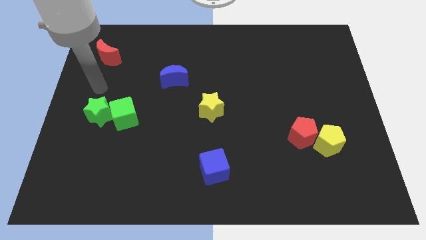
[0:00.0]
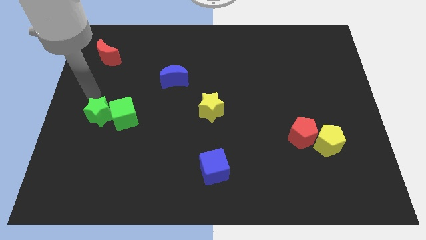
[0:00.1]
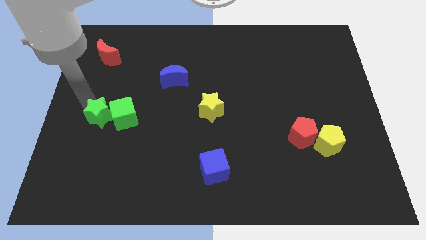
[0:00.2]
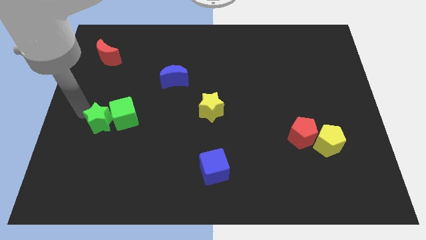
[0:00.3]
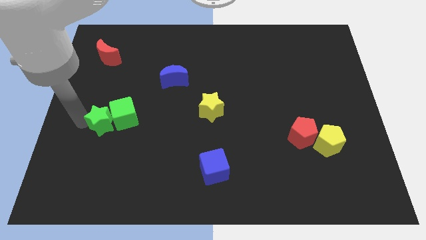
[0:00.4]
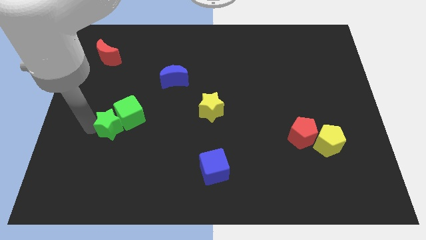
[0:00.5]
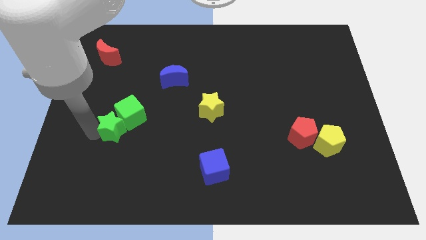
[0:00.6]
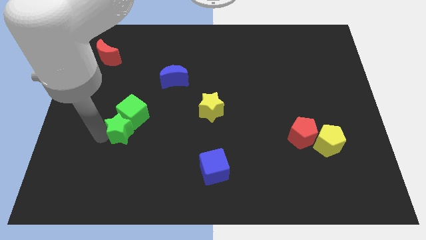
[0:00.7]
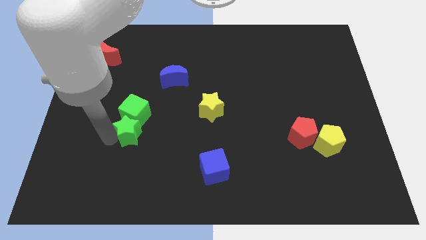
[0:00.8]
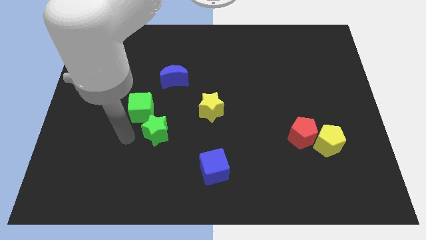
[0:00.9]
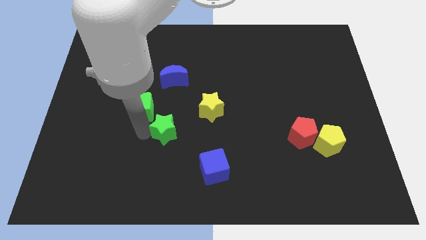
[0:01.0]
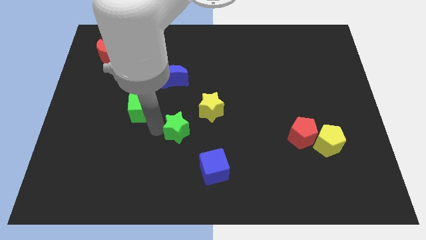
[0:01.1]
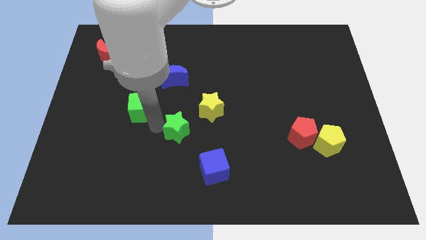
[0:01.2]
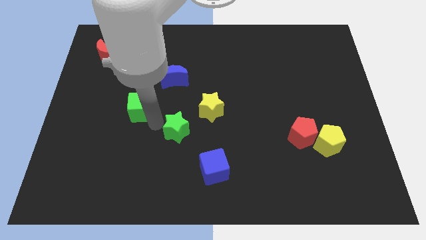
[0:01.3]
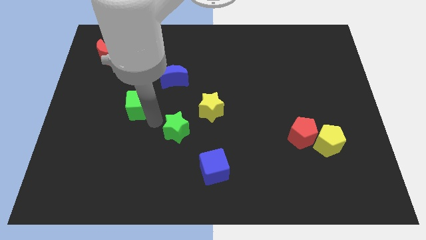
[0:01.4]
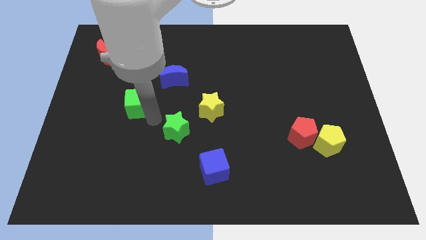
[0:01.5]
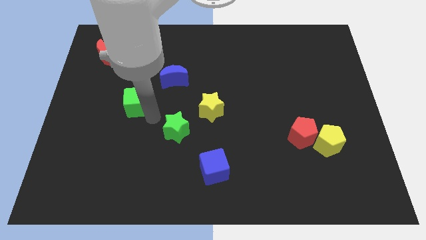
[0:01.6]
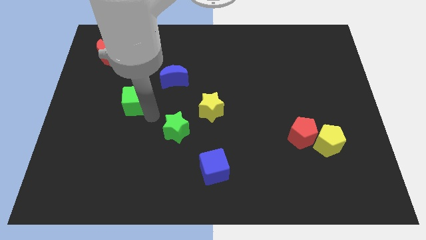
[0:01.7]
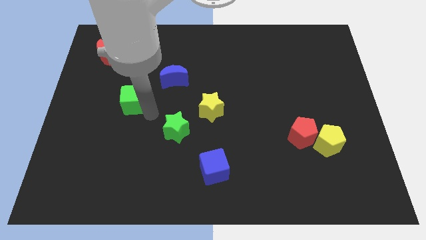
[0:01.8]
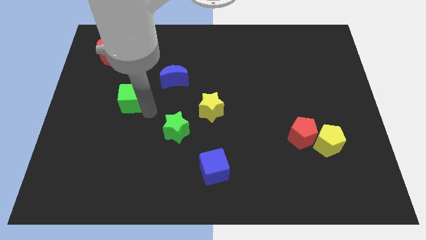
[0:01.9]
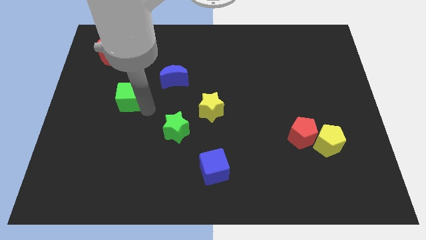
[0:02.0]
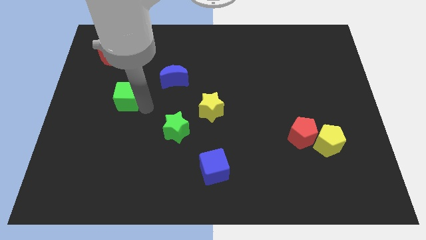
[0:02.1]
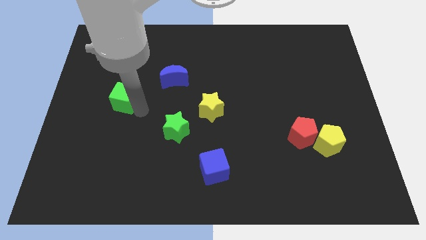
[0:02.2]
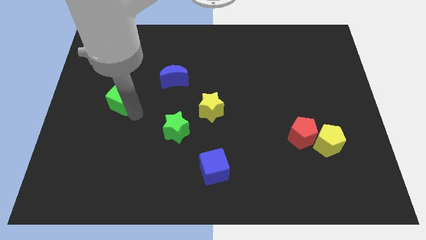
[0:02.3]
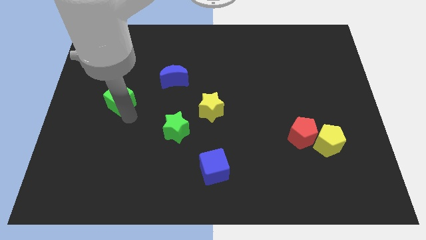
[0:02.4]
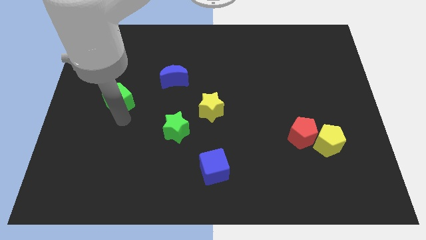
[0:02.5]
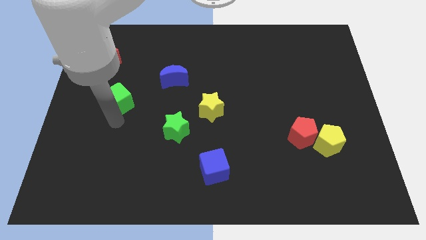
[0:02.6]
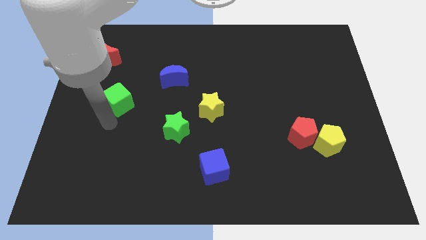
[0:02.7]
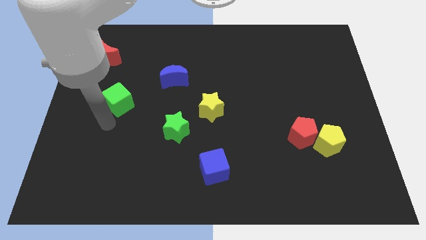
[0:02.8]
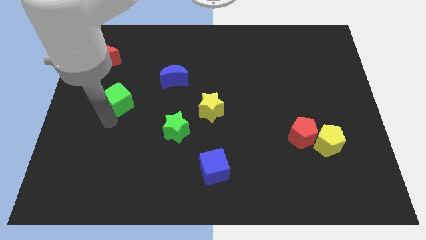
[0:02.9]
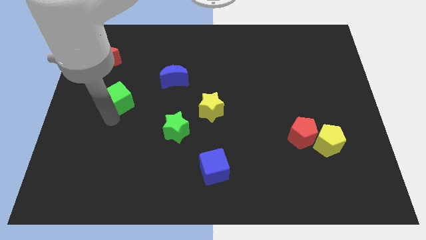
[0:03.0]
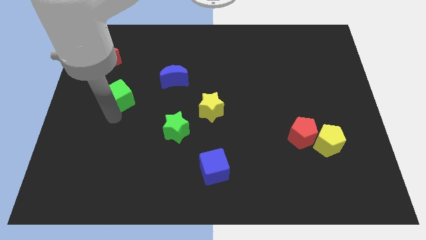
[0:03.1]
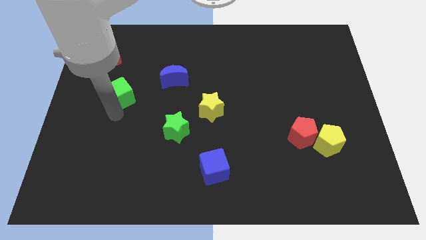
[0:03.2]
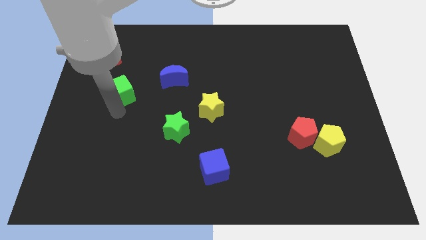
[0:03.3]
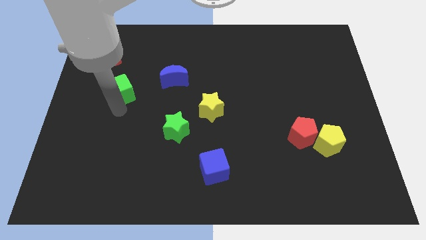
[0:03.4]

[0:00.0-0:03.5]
push the green cube a little bit upwards

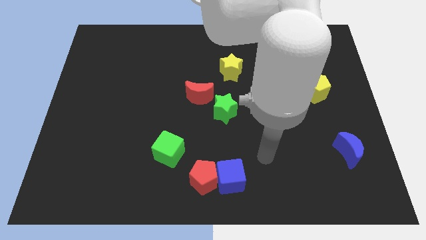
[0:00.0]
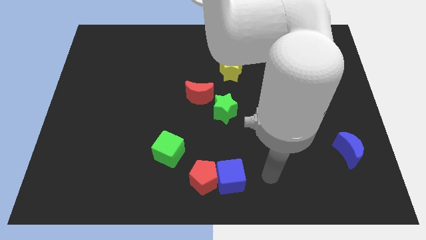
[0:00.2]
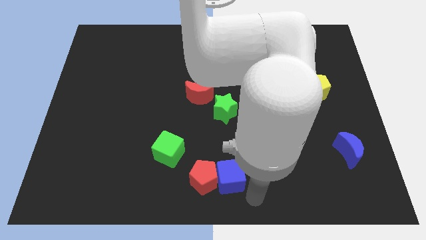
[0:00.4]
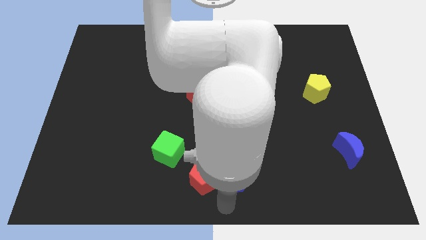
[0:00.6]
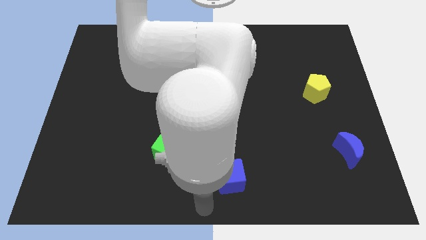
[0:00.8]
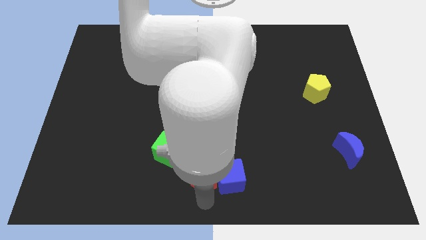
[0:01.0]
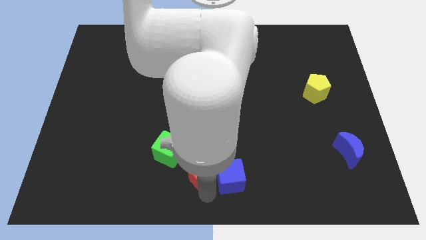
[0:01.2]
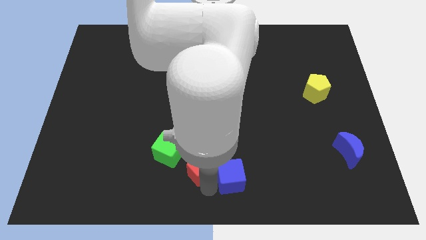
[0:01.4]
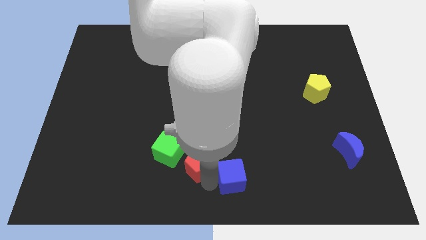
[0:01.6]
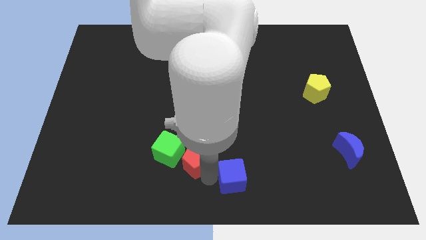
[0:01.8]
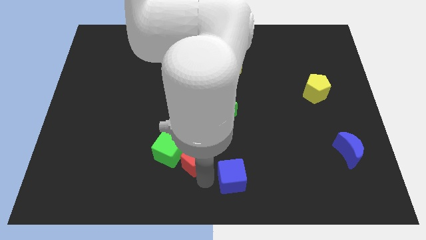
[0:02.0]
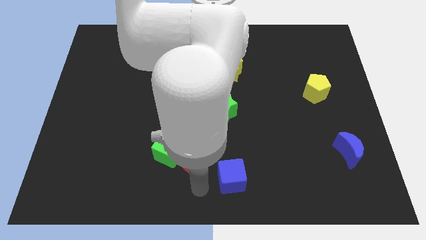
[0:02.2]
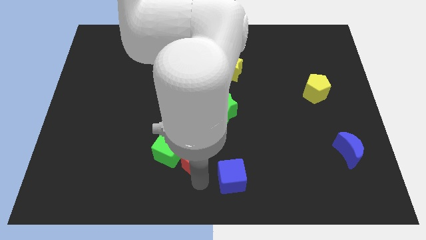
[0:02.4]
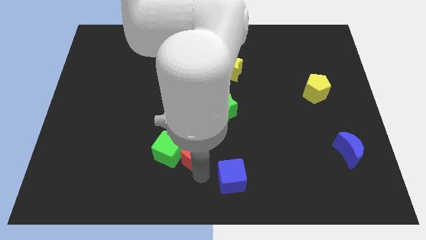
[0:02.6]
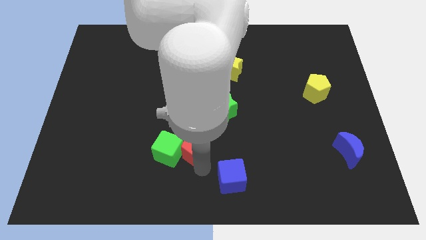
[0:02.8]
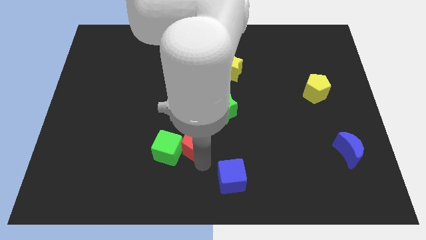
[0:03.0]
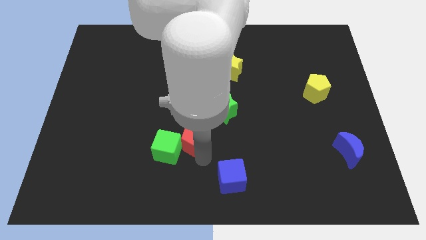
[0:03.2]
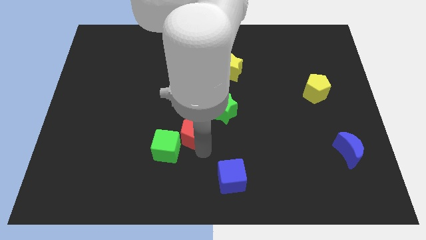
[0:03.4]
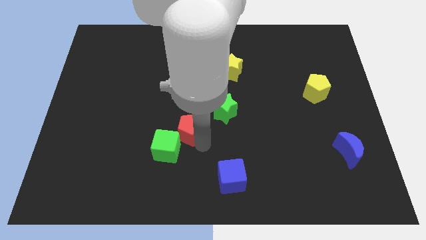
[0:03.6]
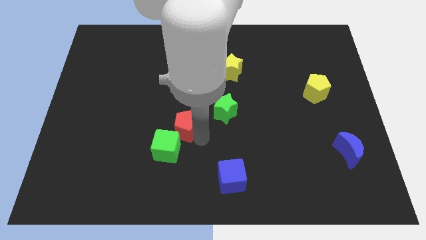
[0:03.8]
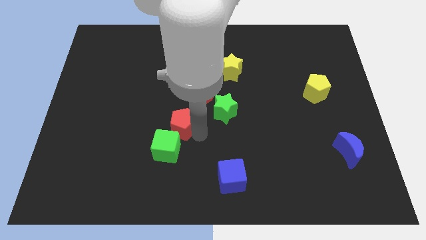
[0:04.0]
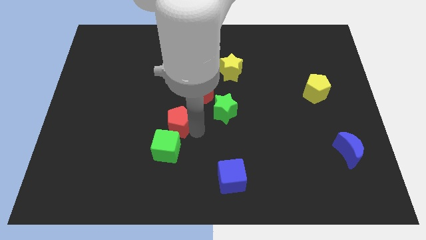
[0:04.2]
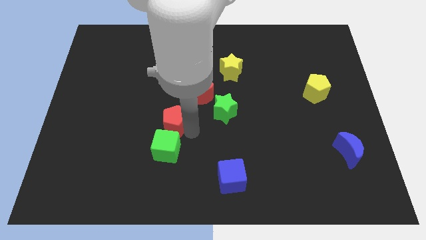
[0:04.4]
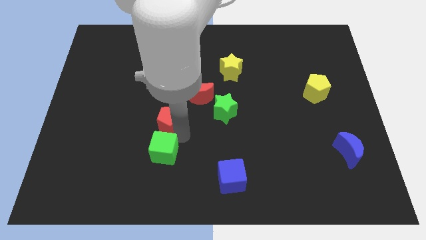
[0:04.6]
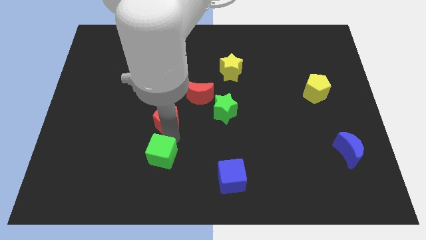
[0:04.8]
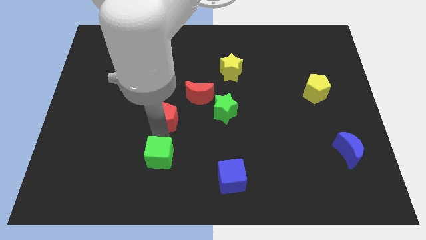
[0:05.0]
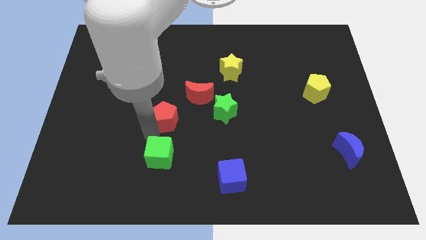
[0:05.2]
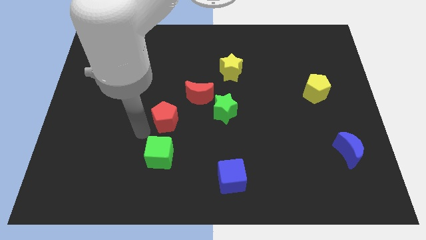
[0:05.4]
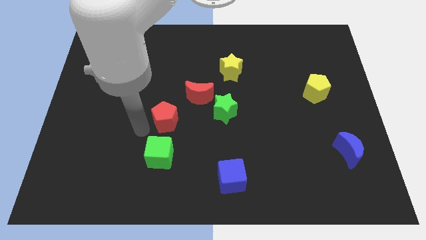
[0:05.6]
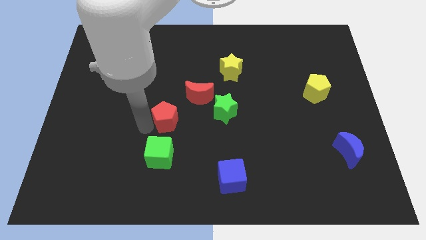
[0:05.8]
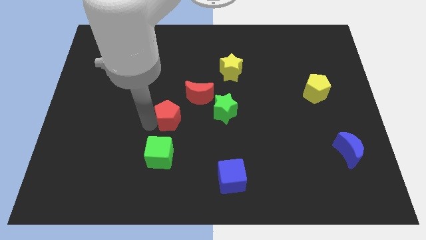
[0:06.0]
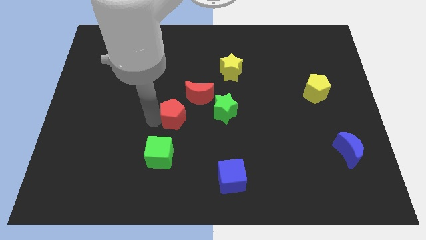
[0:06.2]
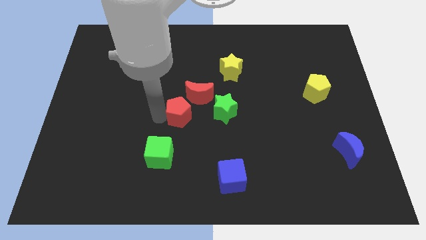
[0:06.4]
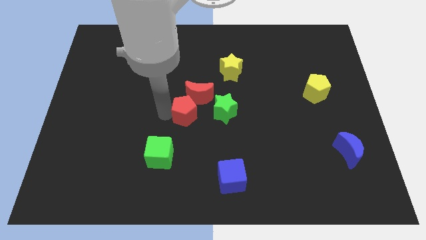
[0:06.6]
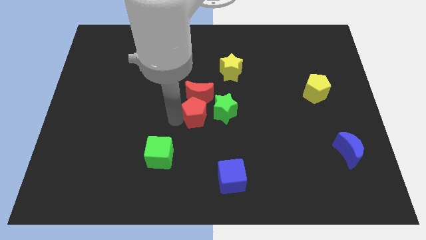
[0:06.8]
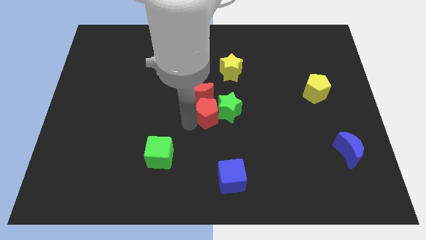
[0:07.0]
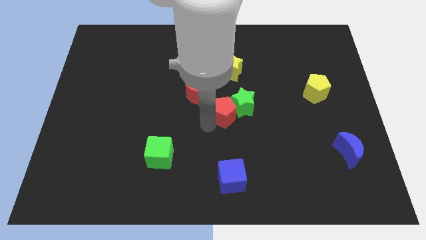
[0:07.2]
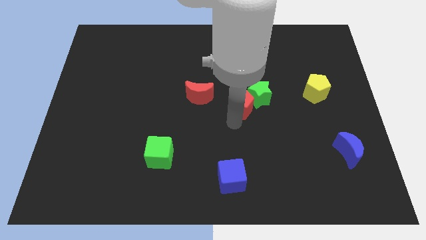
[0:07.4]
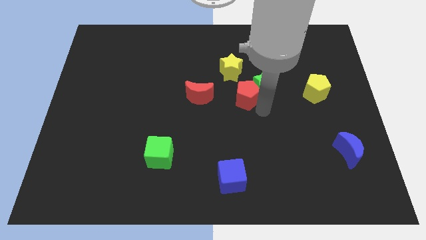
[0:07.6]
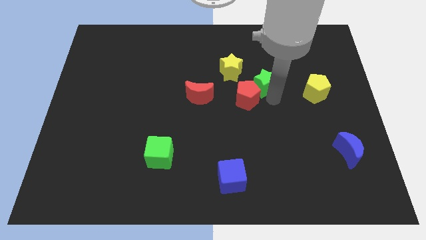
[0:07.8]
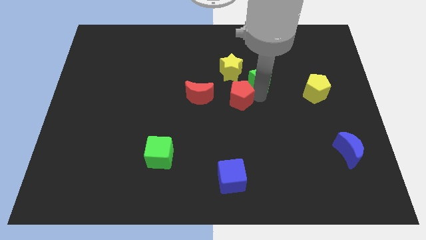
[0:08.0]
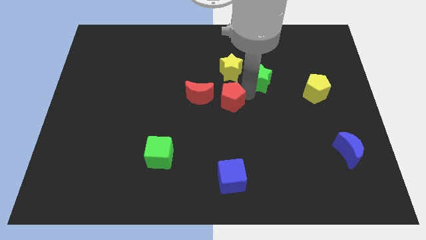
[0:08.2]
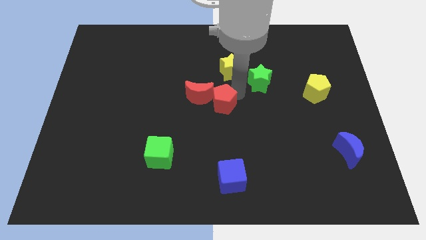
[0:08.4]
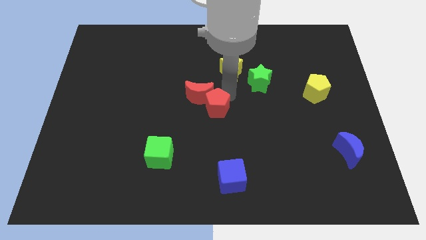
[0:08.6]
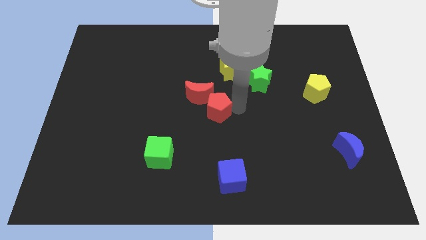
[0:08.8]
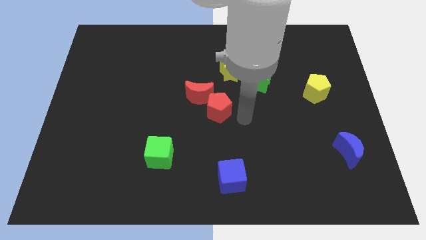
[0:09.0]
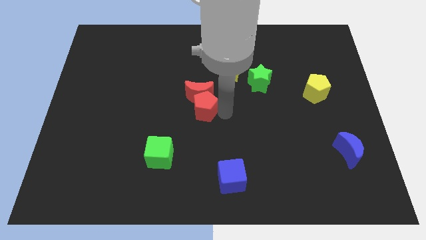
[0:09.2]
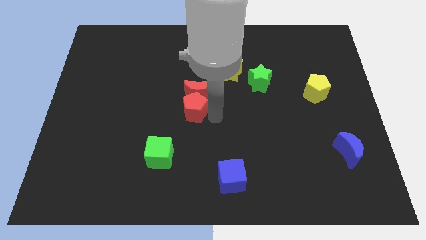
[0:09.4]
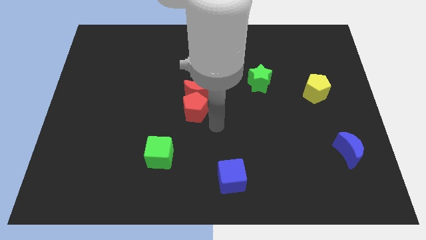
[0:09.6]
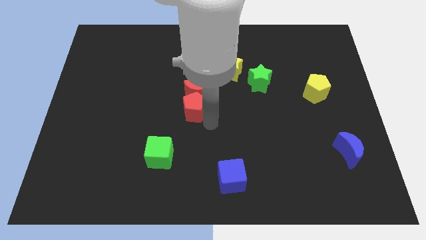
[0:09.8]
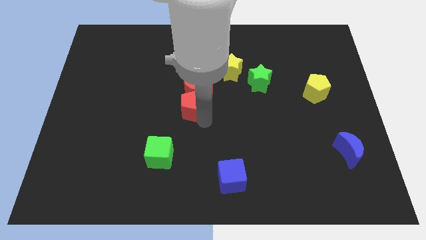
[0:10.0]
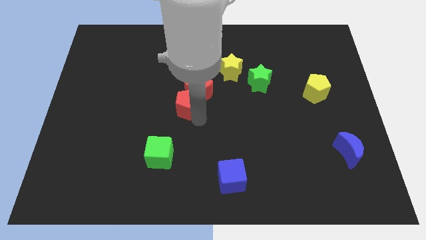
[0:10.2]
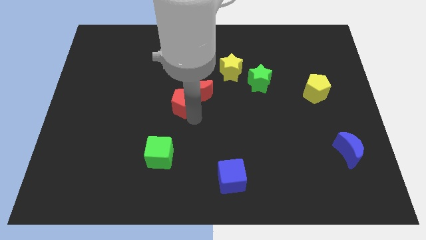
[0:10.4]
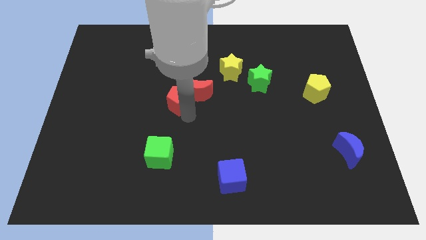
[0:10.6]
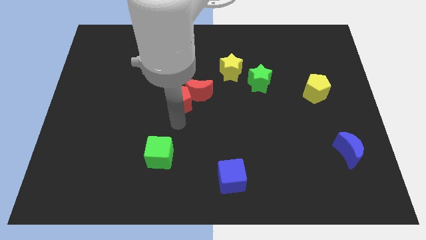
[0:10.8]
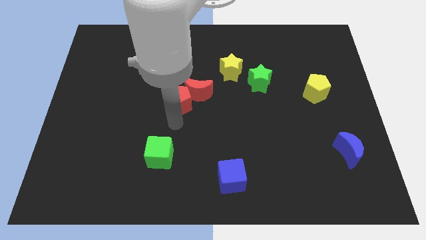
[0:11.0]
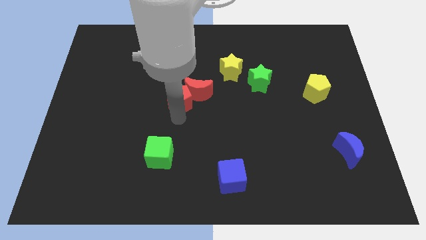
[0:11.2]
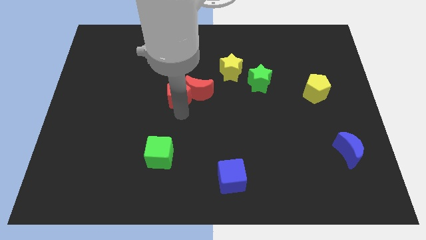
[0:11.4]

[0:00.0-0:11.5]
move the red pentagon up
